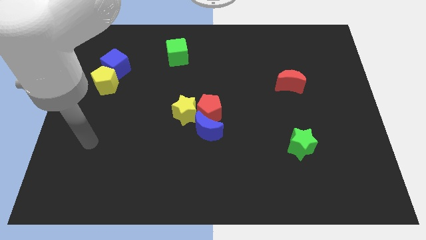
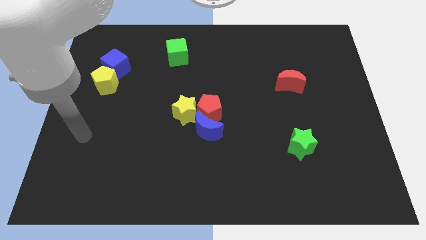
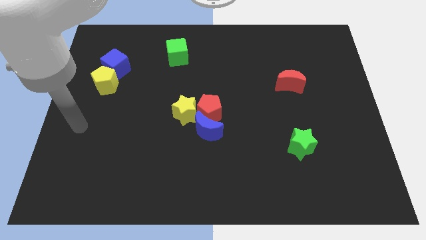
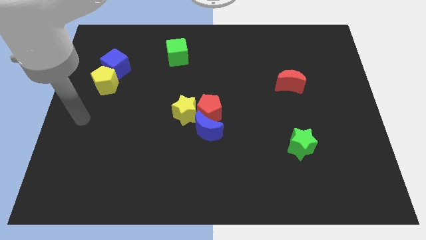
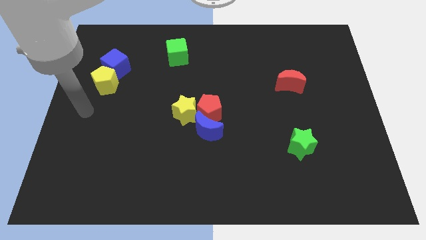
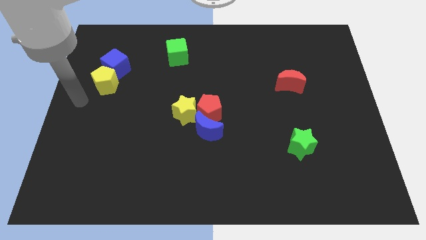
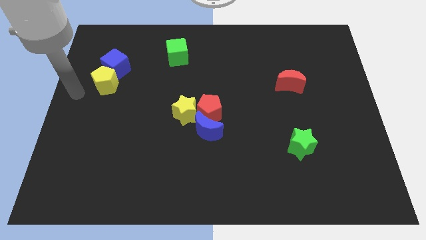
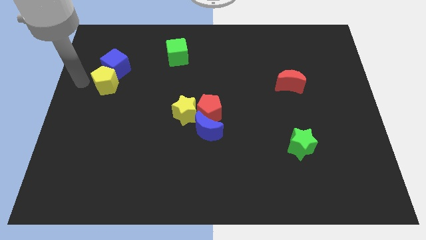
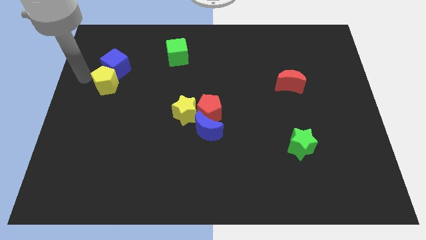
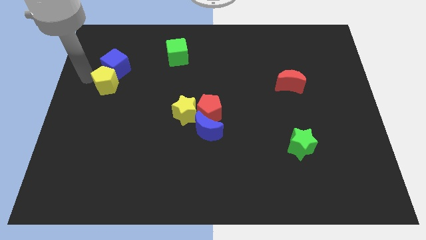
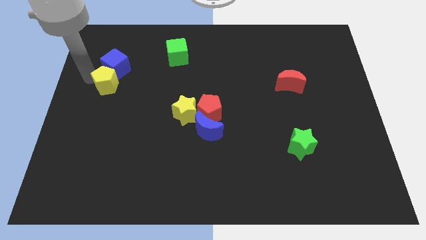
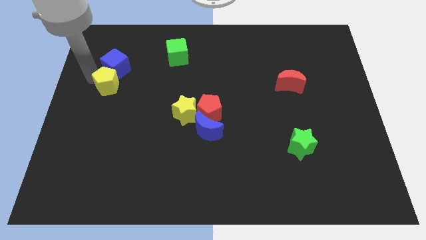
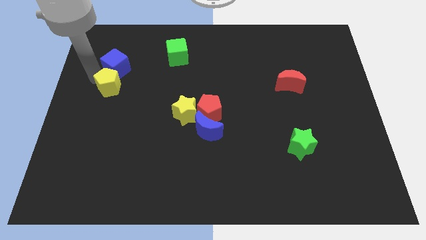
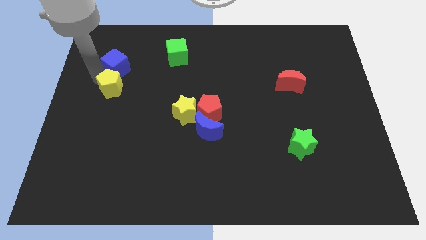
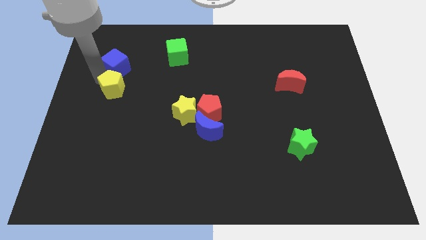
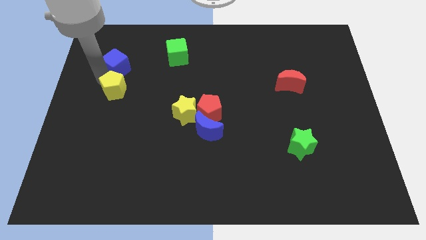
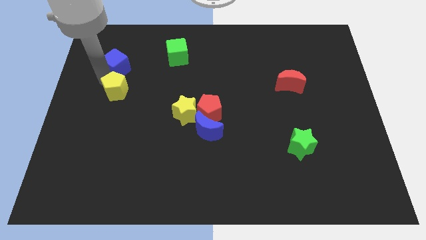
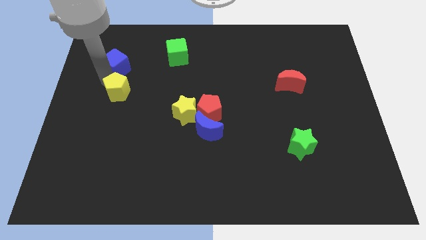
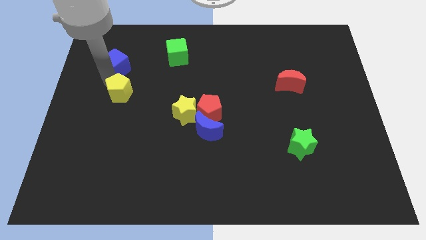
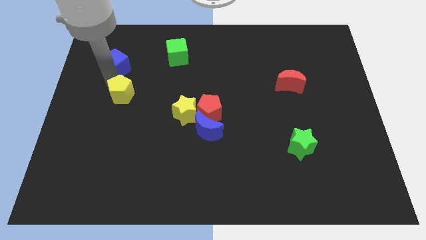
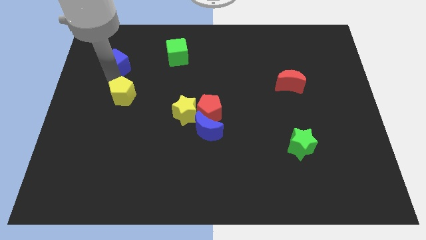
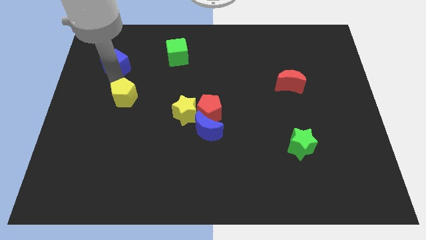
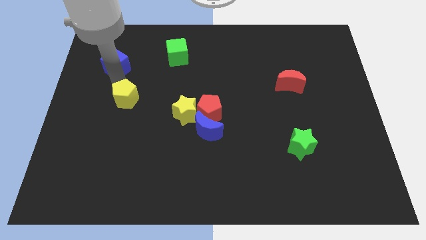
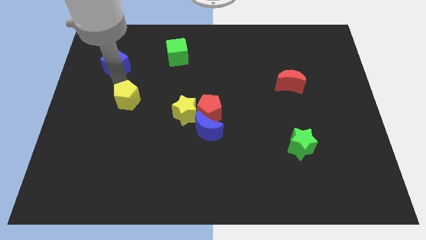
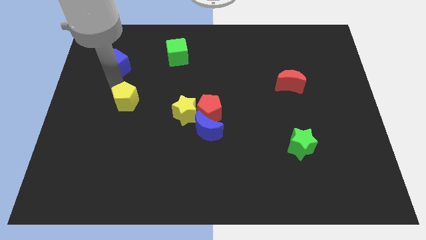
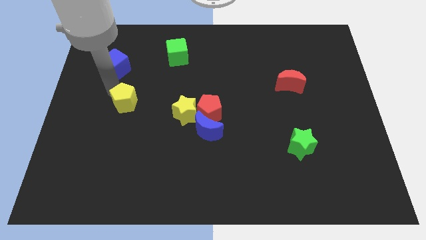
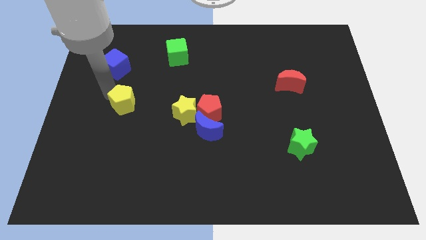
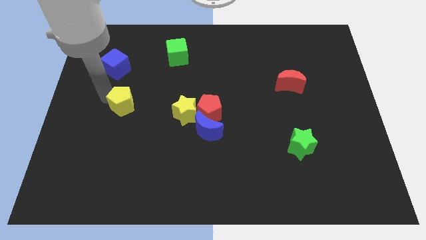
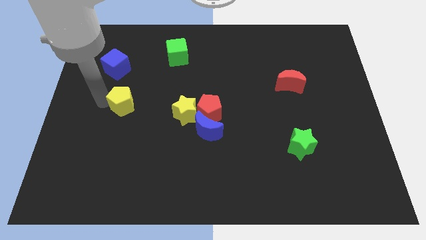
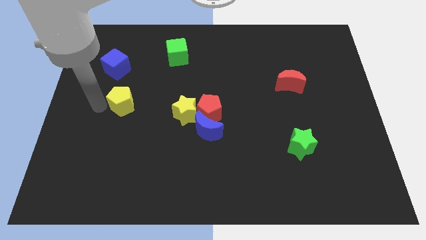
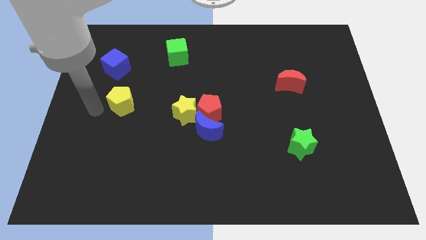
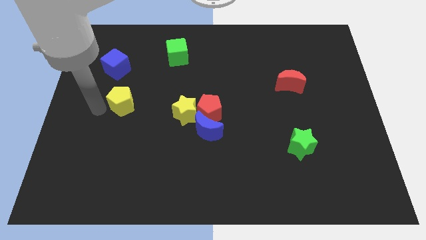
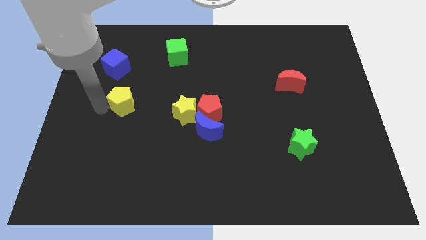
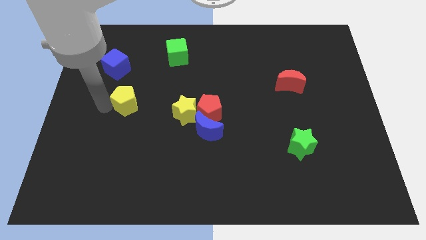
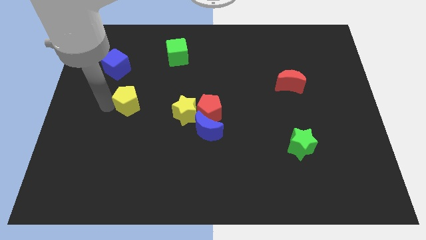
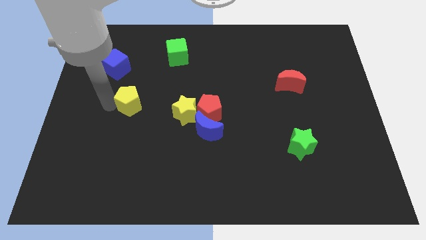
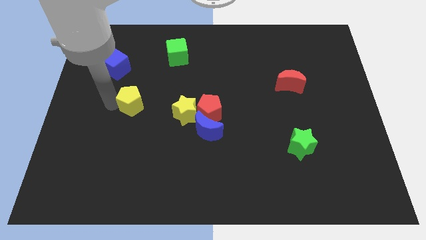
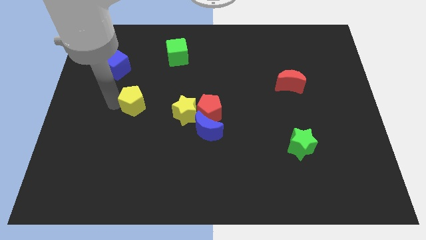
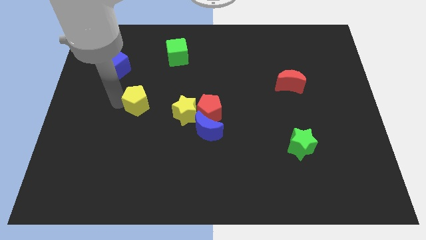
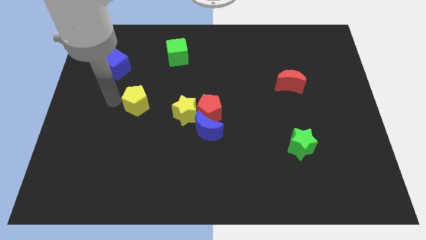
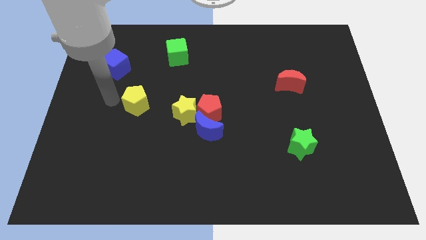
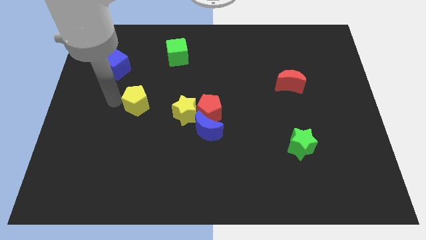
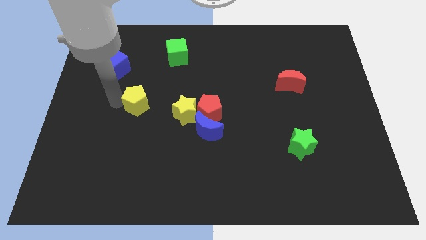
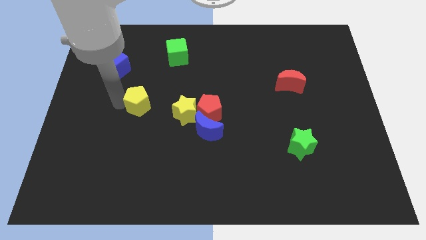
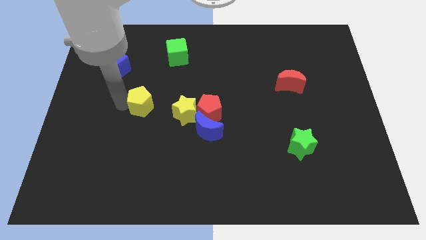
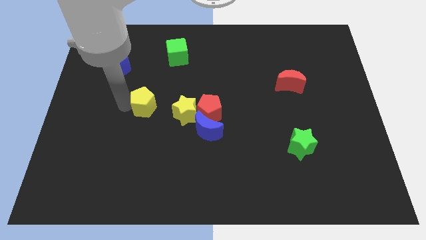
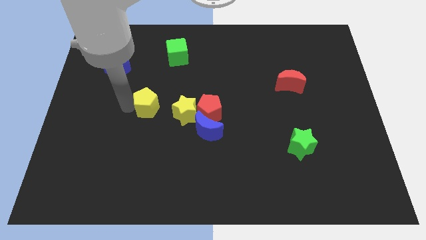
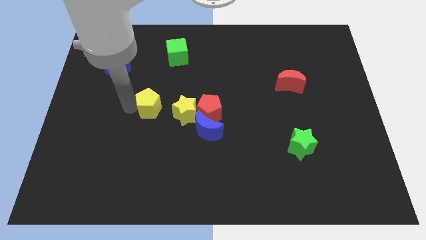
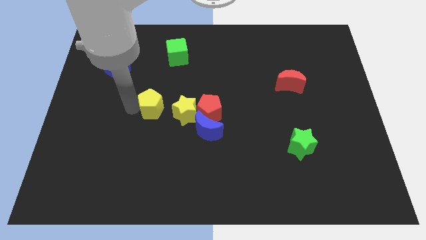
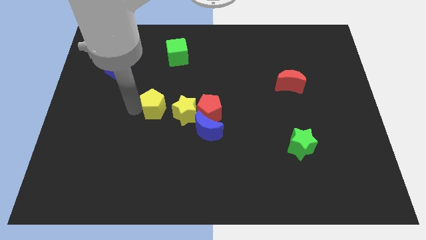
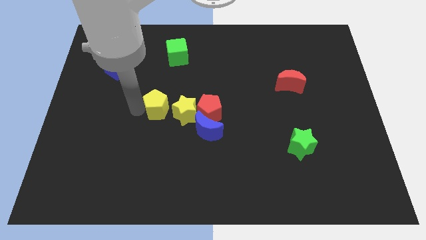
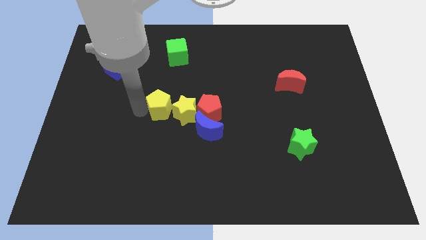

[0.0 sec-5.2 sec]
put the yellow pentagon next to the yellow star

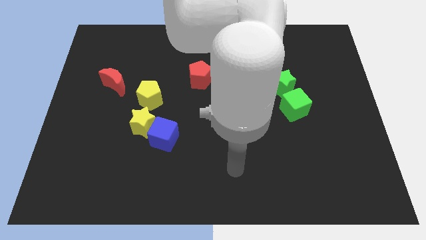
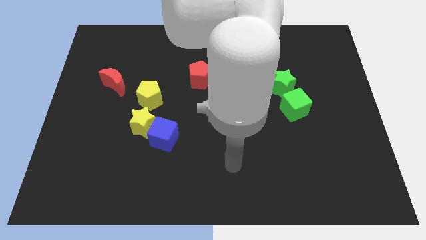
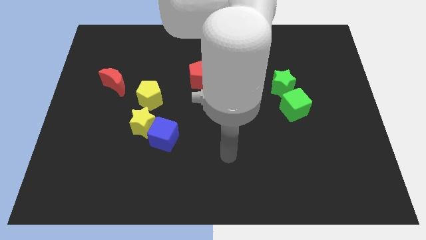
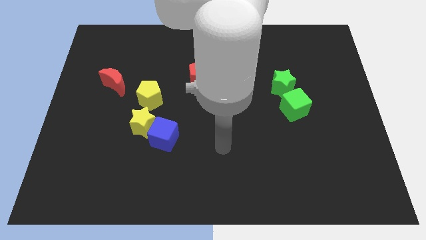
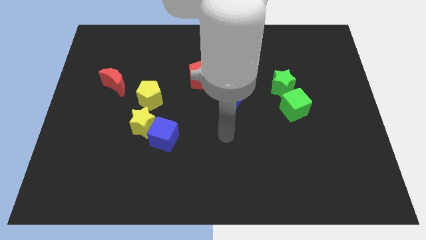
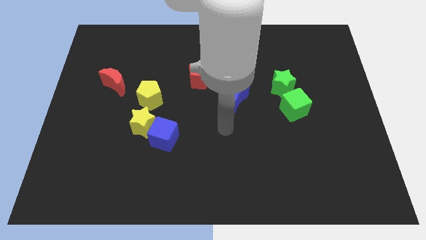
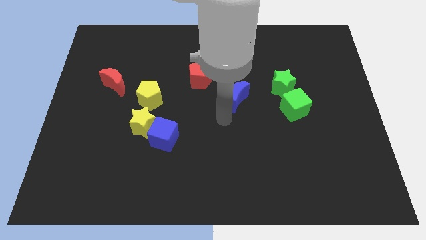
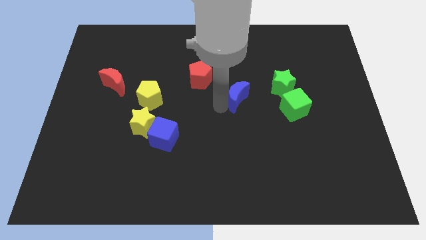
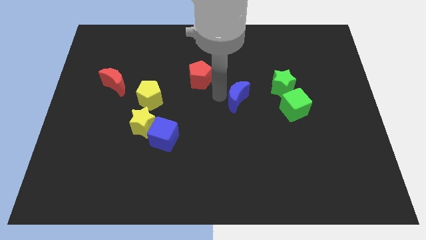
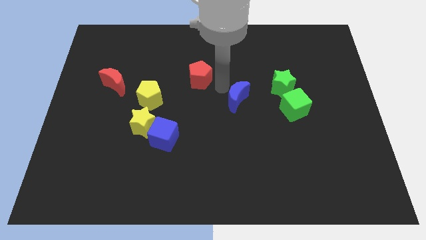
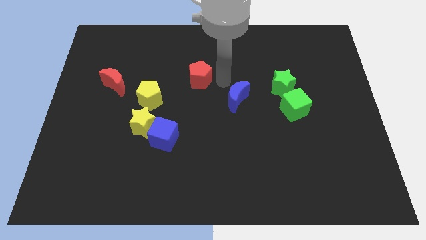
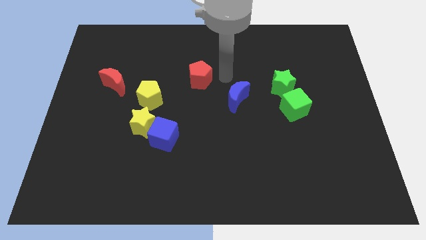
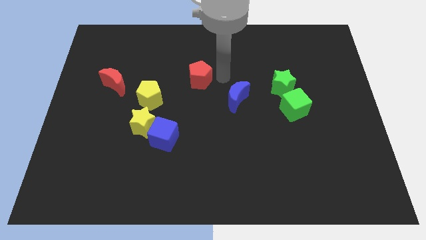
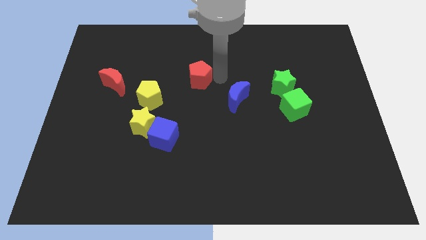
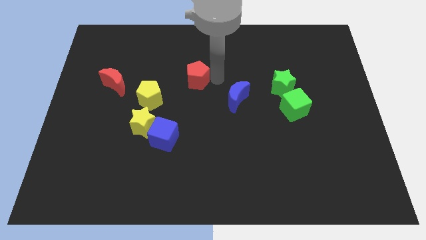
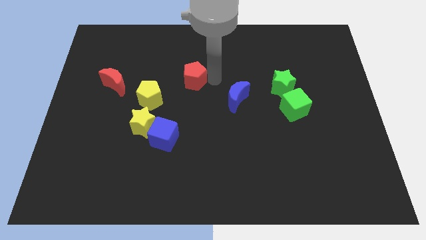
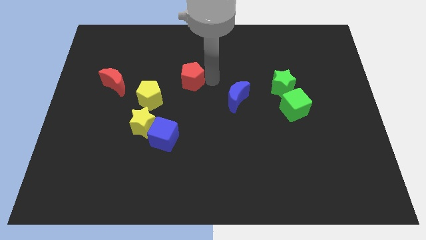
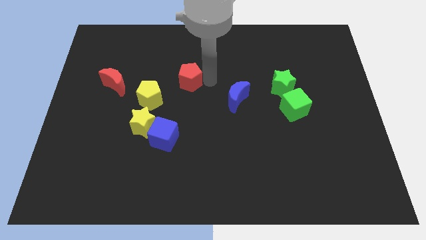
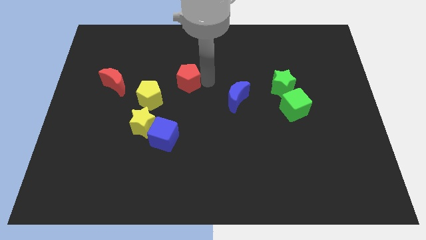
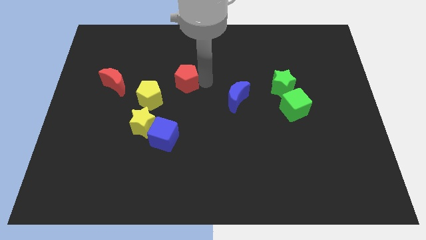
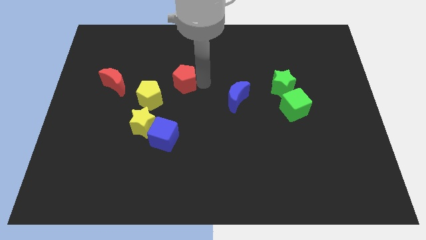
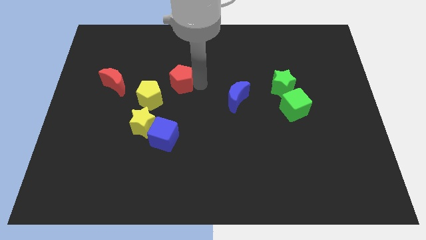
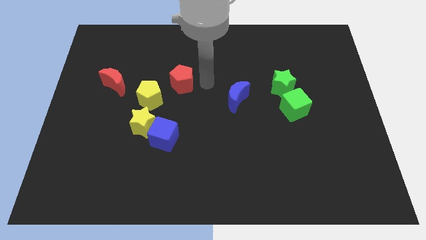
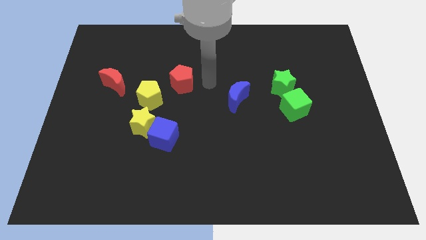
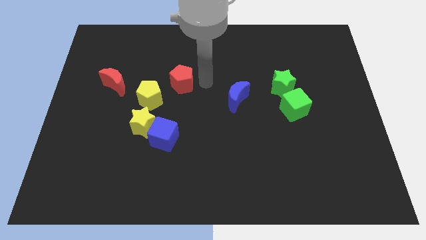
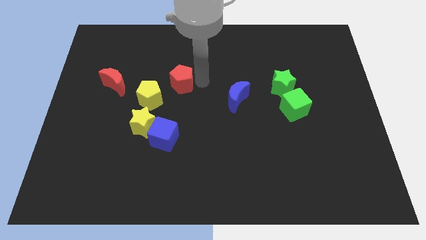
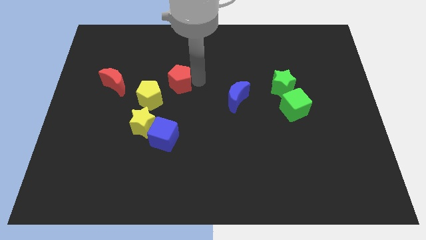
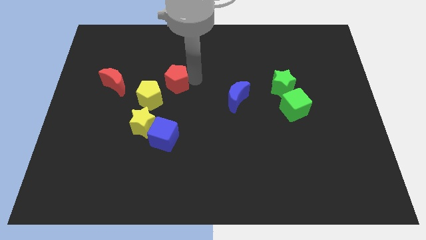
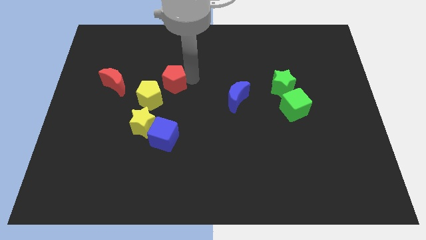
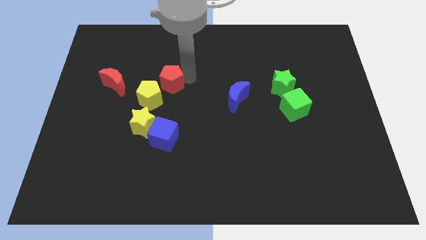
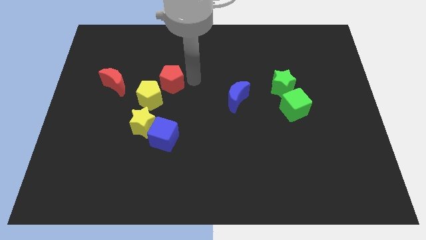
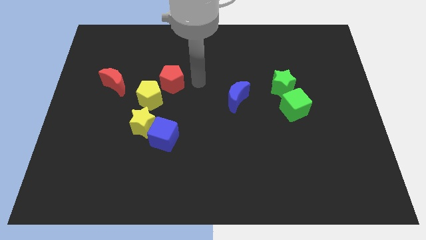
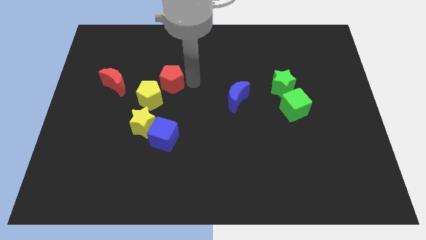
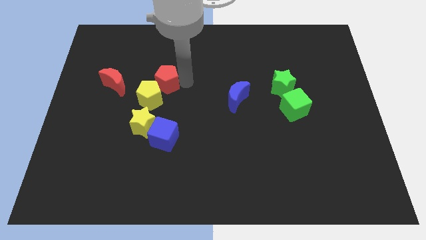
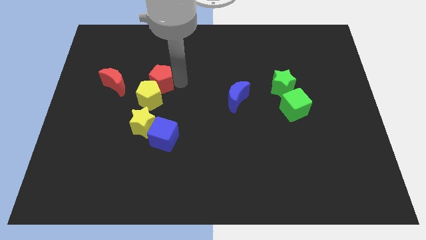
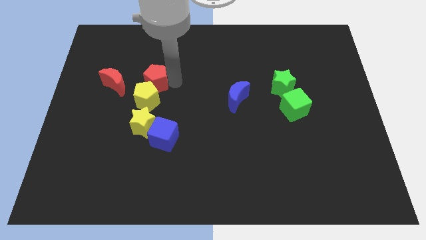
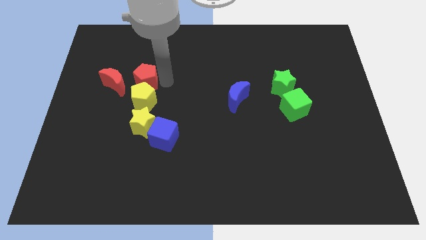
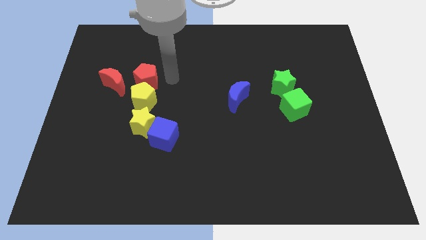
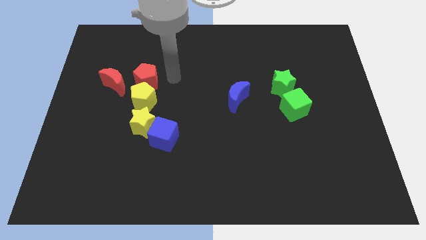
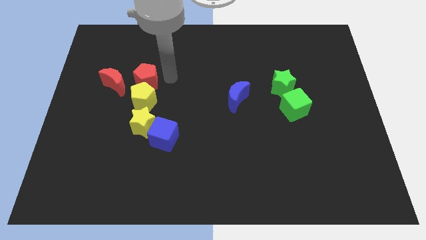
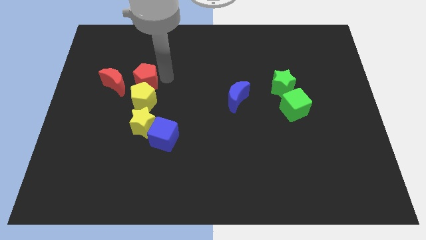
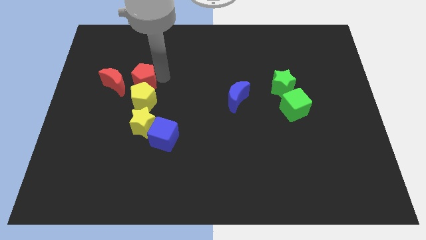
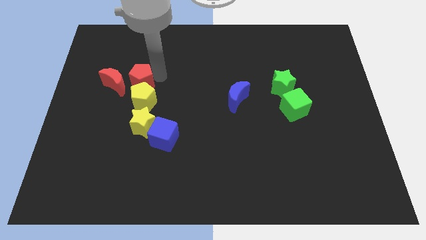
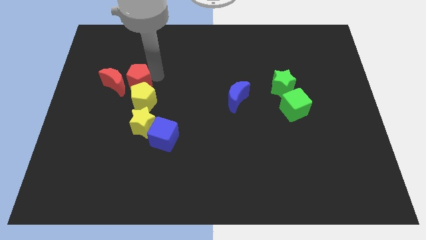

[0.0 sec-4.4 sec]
push the red pentagon towards the red moon
